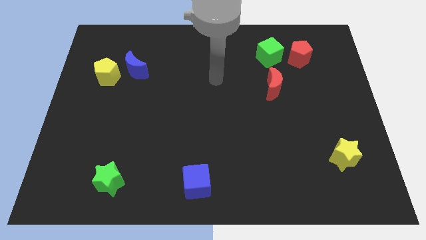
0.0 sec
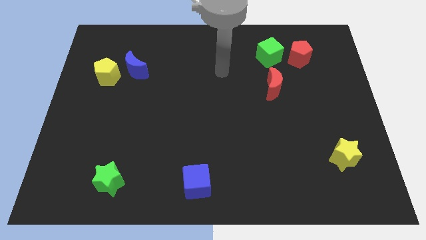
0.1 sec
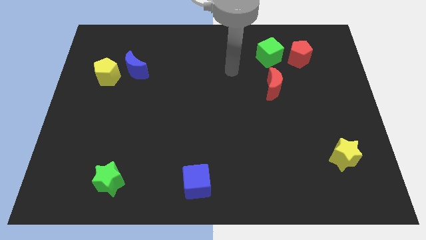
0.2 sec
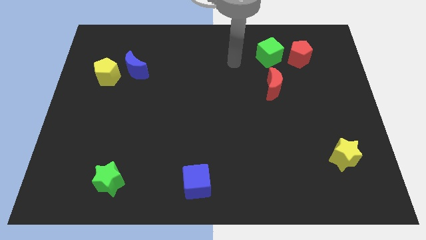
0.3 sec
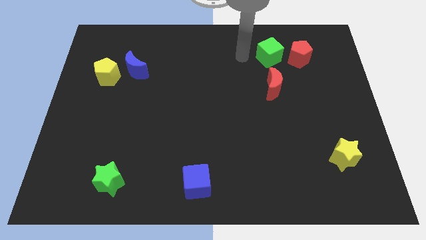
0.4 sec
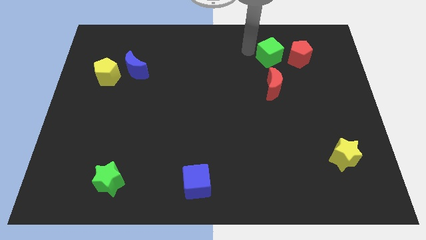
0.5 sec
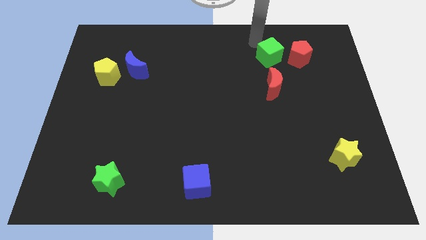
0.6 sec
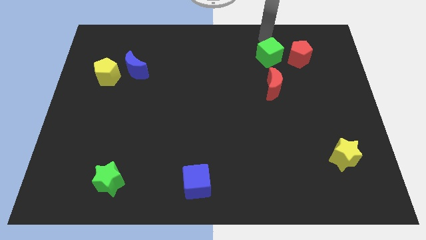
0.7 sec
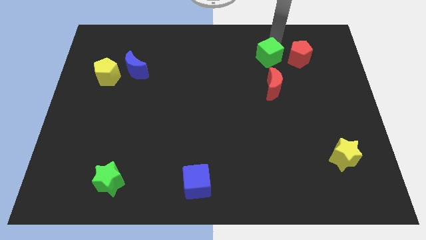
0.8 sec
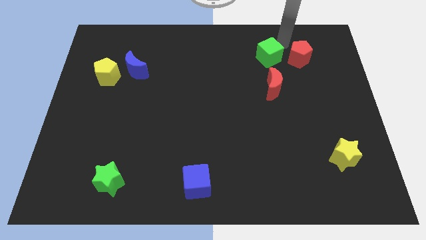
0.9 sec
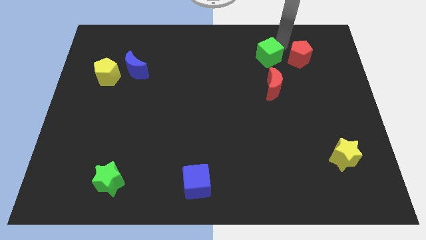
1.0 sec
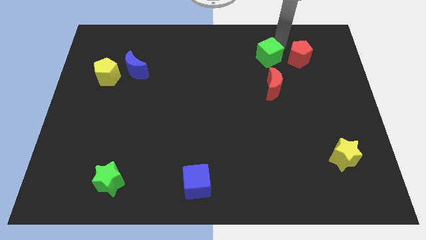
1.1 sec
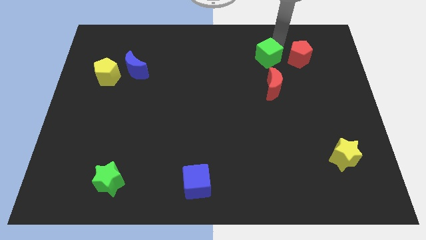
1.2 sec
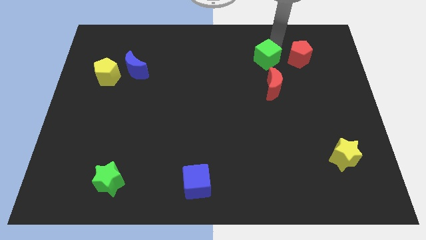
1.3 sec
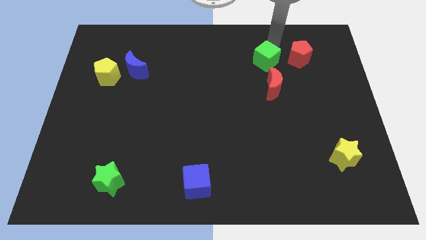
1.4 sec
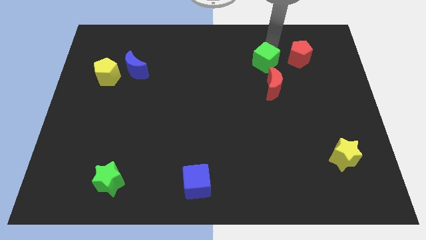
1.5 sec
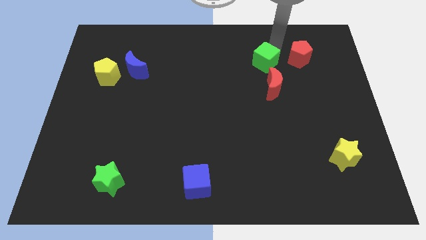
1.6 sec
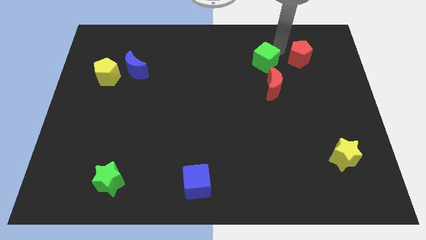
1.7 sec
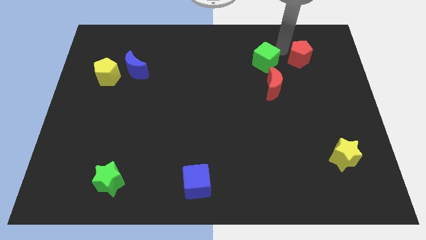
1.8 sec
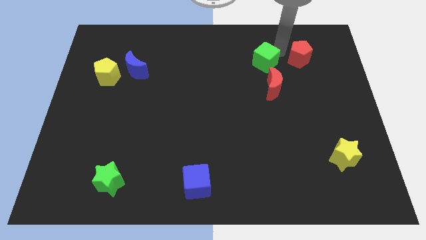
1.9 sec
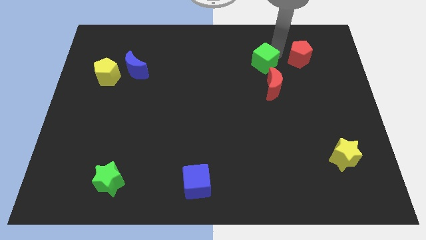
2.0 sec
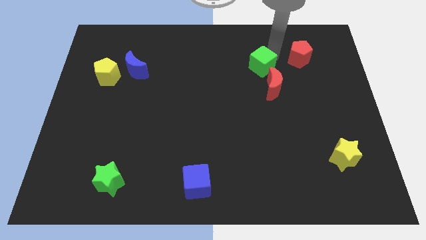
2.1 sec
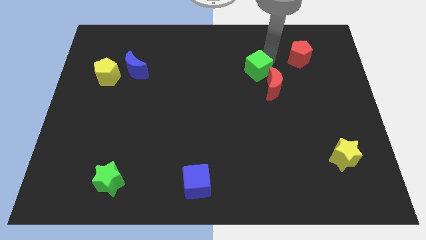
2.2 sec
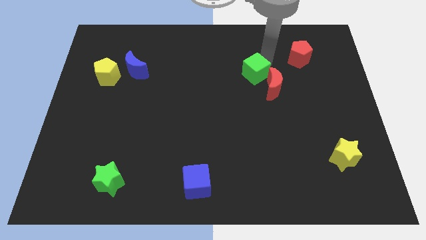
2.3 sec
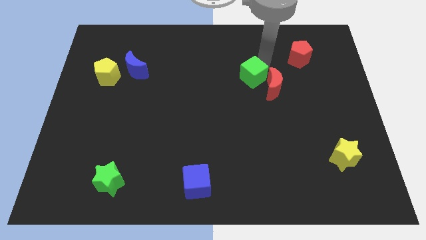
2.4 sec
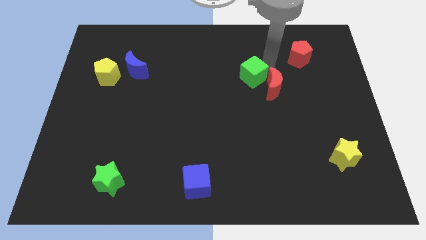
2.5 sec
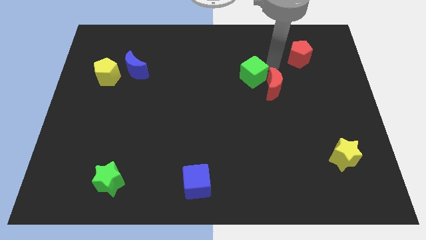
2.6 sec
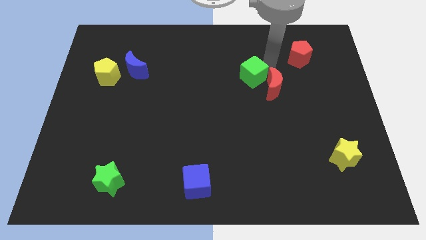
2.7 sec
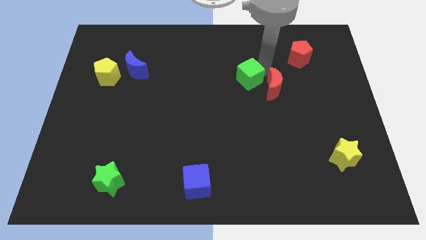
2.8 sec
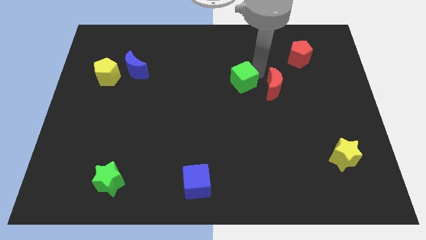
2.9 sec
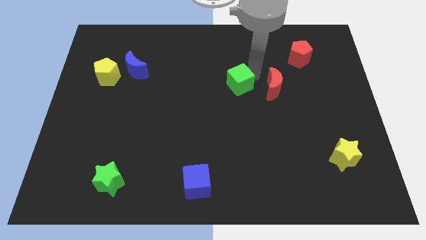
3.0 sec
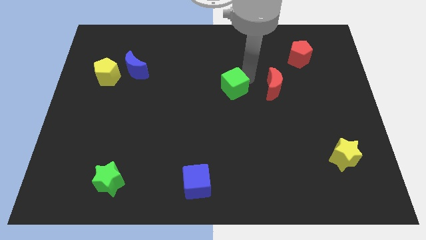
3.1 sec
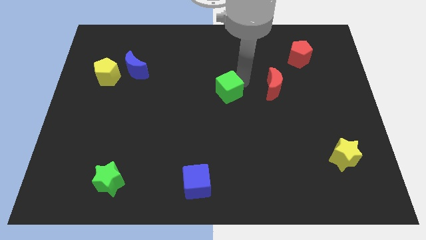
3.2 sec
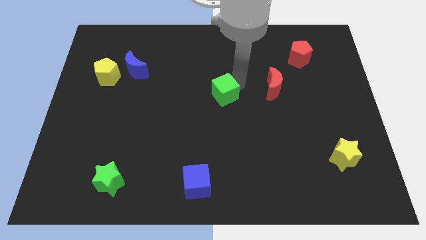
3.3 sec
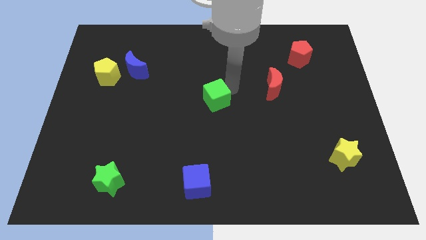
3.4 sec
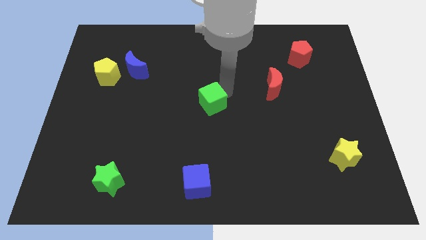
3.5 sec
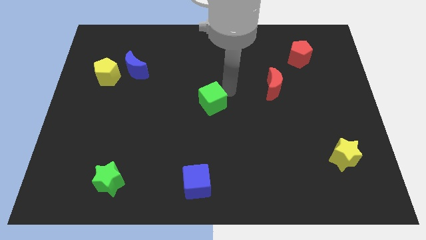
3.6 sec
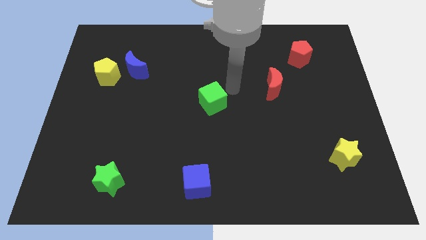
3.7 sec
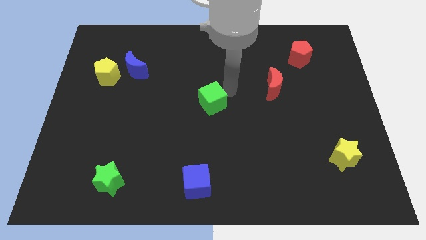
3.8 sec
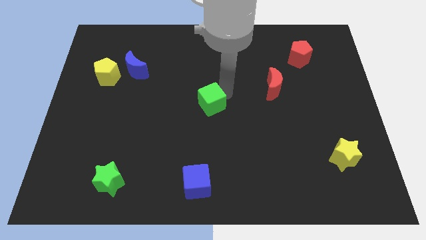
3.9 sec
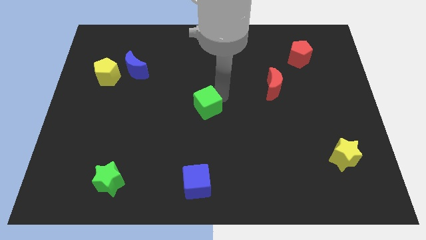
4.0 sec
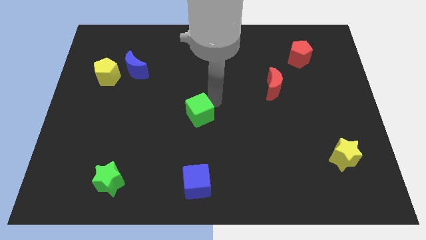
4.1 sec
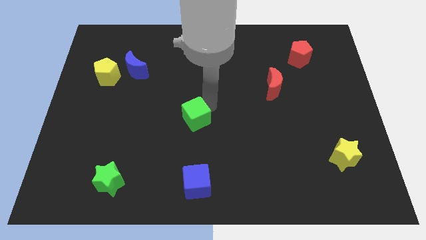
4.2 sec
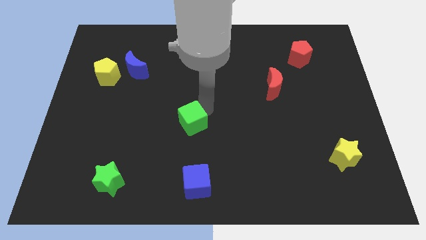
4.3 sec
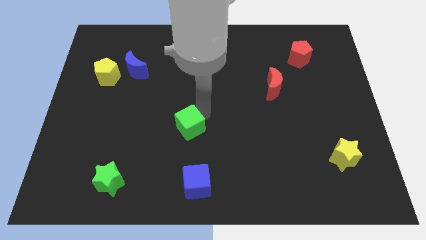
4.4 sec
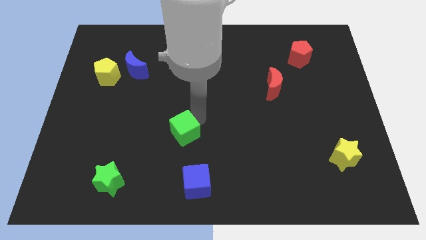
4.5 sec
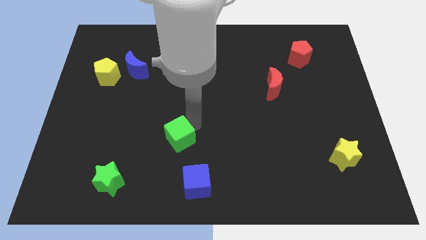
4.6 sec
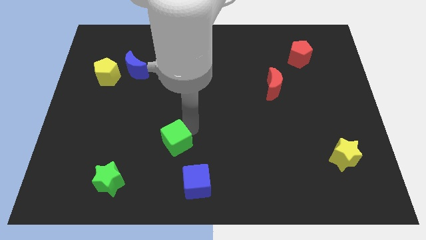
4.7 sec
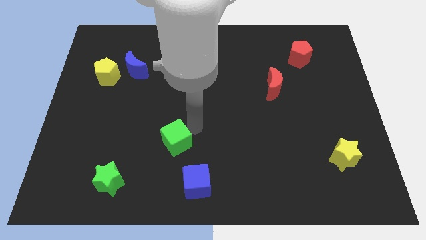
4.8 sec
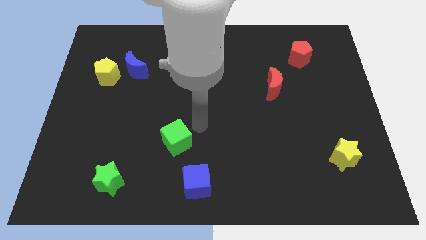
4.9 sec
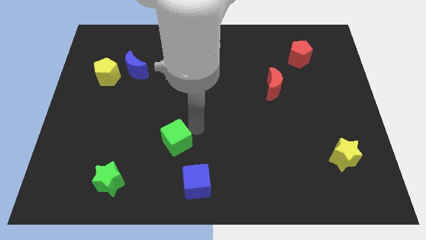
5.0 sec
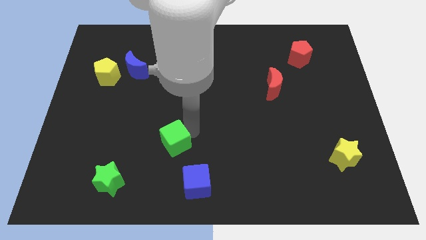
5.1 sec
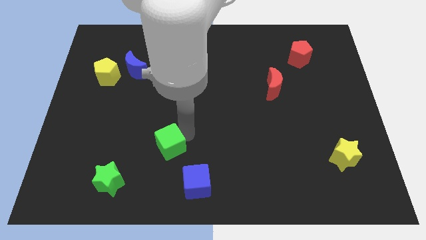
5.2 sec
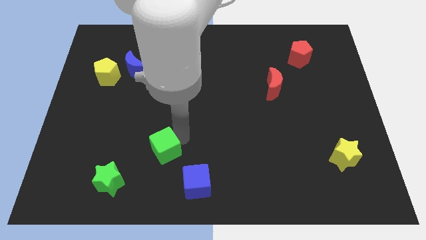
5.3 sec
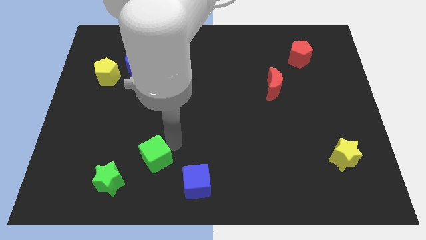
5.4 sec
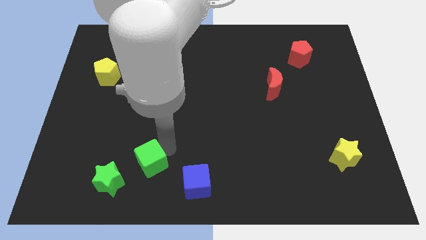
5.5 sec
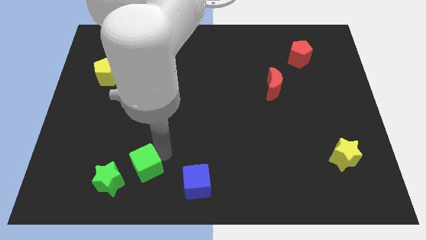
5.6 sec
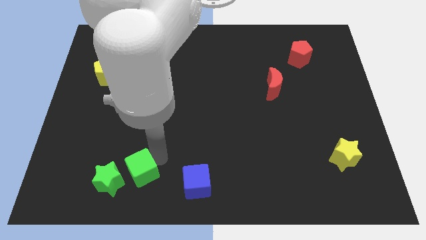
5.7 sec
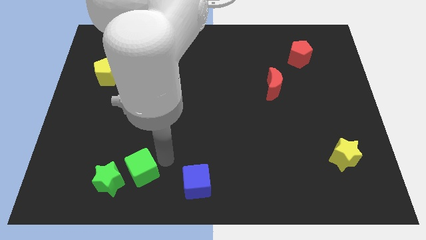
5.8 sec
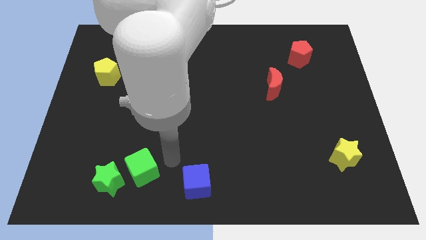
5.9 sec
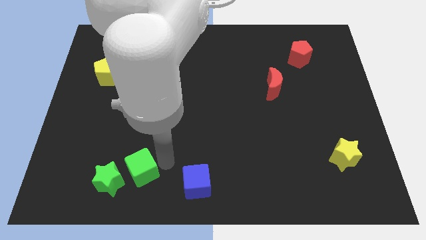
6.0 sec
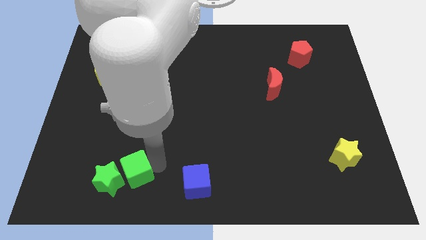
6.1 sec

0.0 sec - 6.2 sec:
move the green cube next to the green star

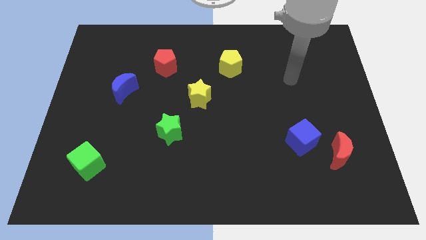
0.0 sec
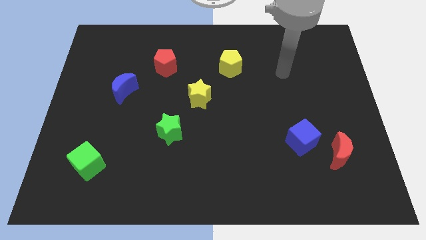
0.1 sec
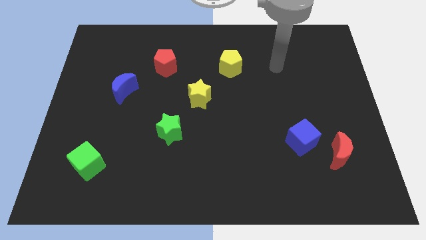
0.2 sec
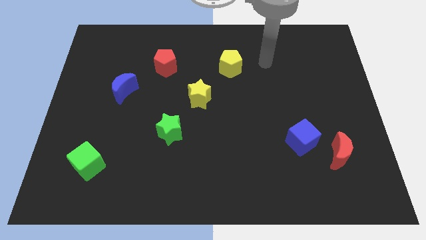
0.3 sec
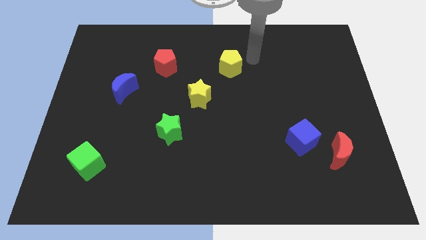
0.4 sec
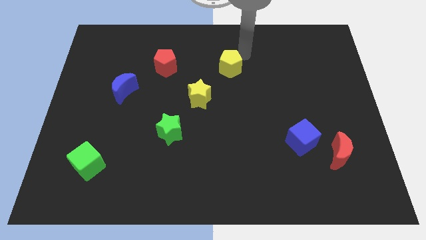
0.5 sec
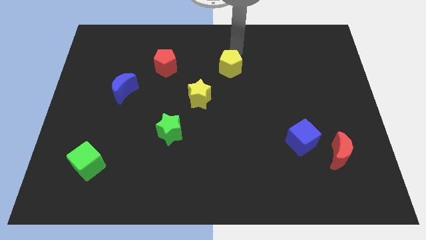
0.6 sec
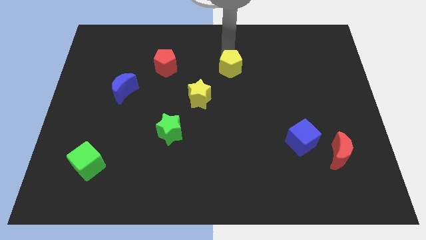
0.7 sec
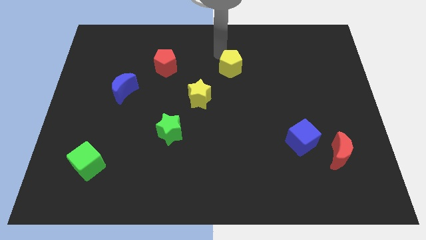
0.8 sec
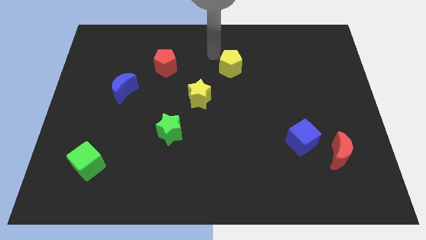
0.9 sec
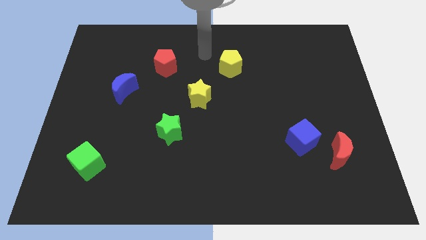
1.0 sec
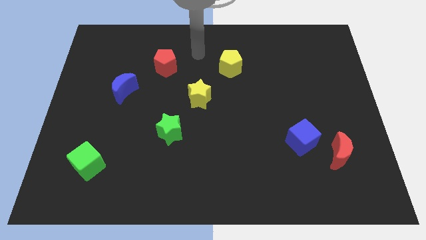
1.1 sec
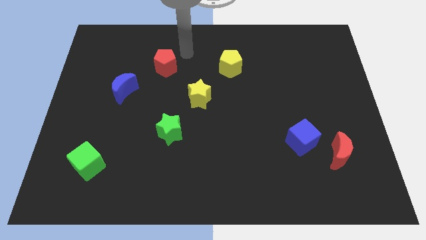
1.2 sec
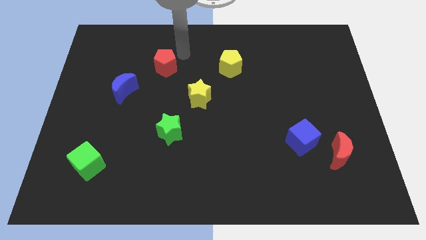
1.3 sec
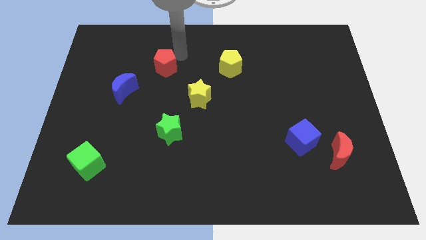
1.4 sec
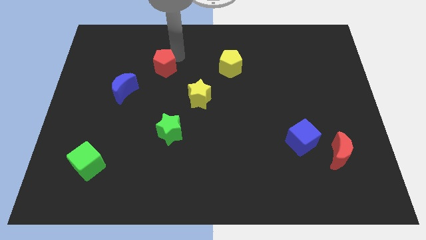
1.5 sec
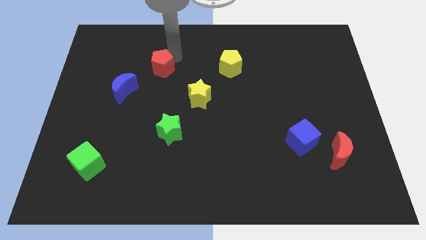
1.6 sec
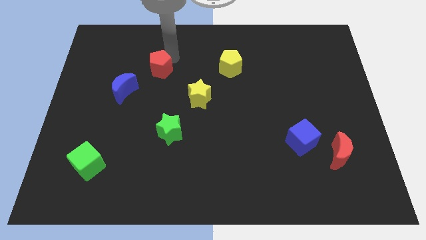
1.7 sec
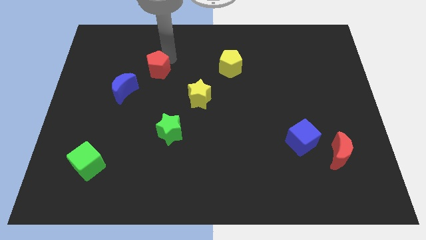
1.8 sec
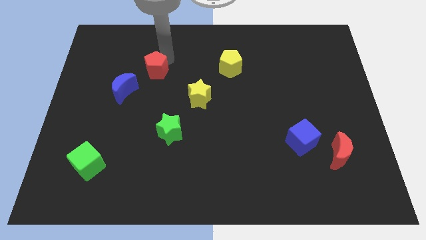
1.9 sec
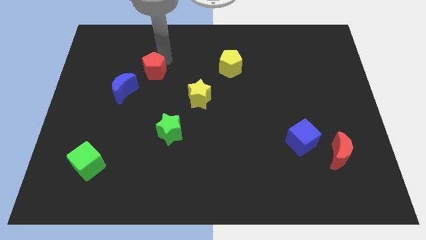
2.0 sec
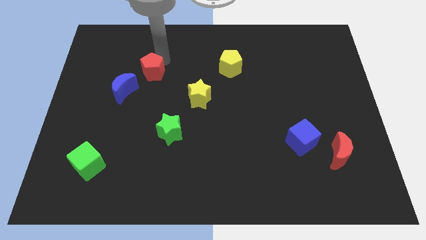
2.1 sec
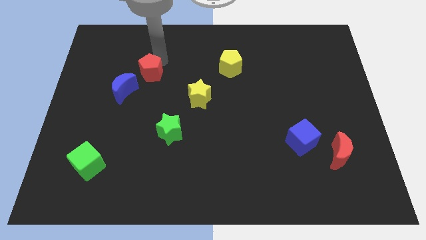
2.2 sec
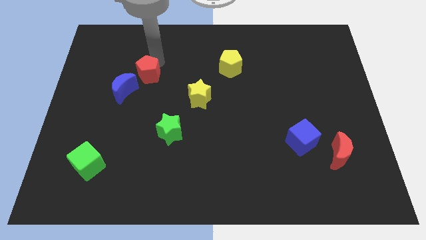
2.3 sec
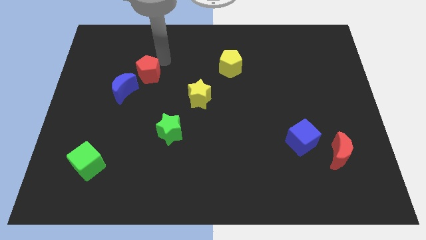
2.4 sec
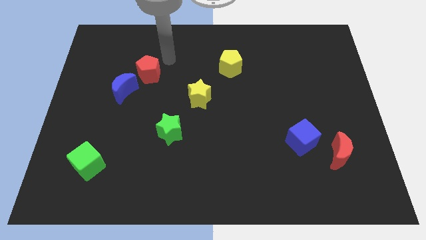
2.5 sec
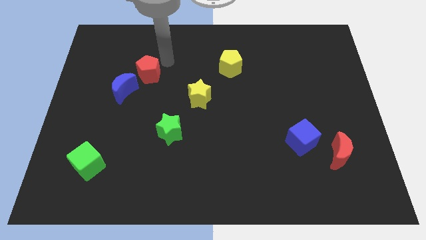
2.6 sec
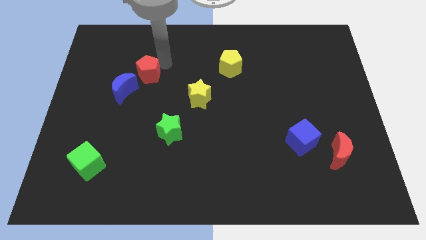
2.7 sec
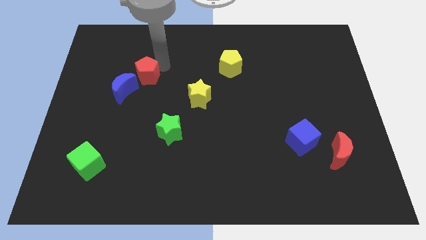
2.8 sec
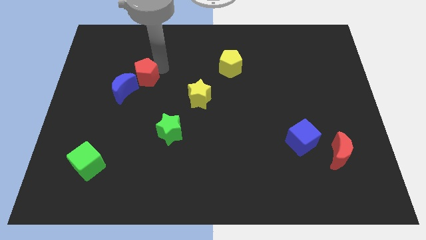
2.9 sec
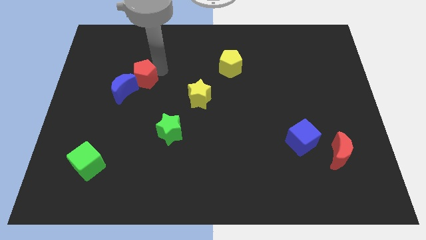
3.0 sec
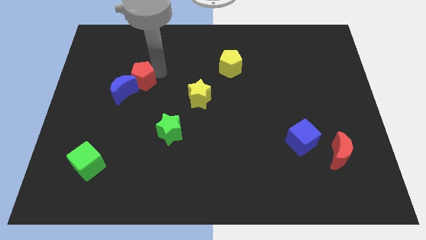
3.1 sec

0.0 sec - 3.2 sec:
move the red pentagon to the blue moon
